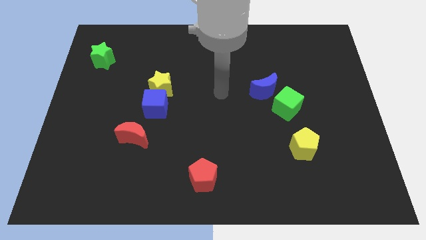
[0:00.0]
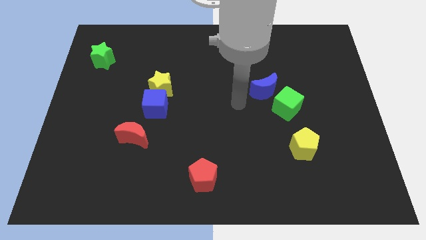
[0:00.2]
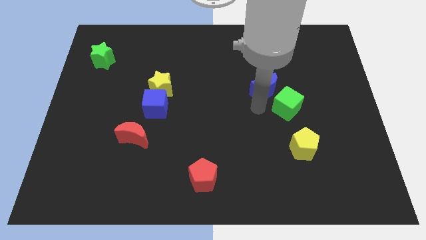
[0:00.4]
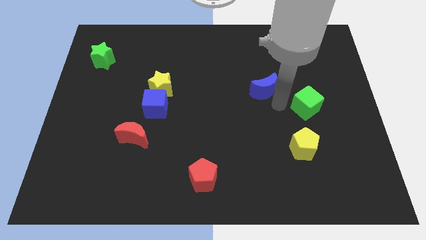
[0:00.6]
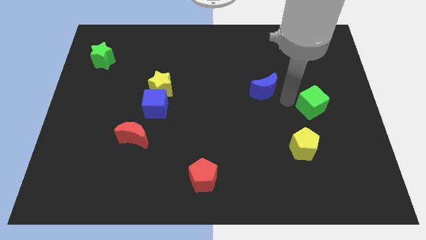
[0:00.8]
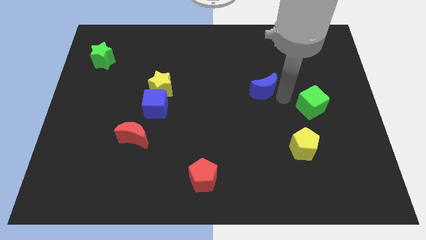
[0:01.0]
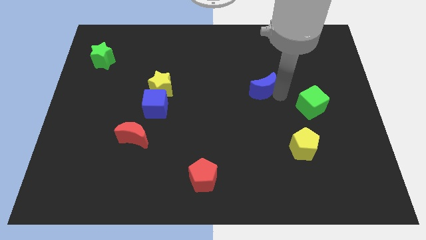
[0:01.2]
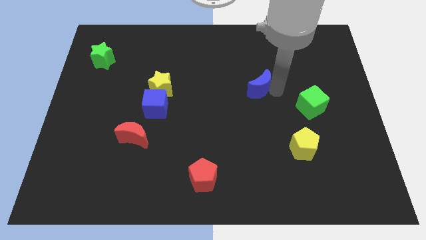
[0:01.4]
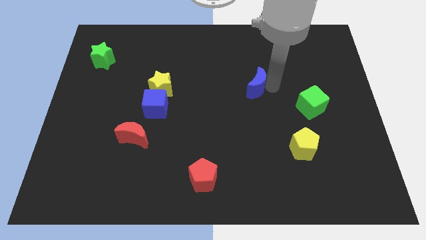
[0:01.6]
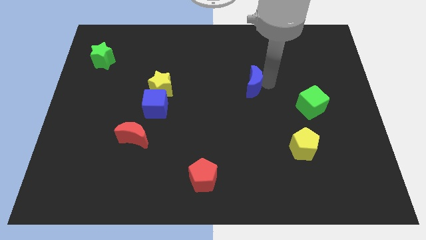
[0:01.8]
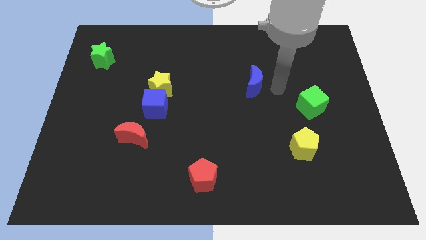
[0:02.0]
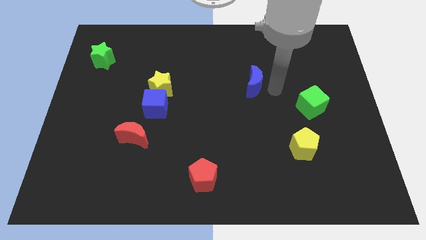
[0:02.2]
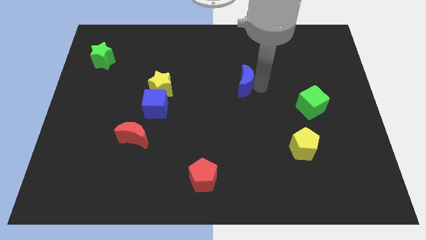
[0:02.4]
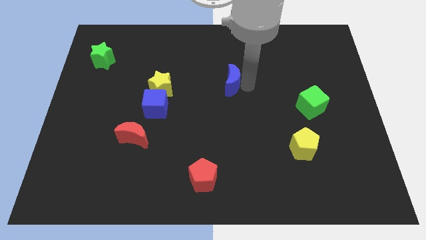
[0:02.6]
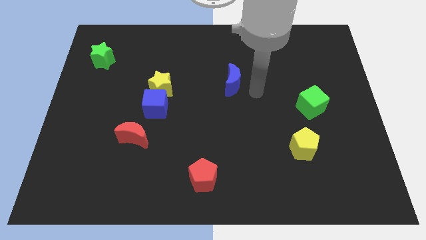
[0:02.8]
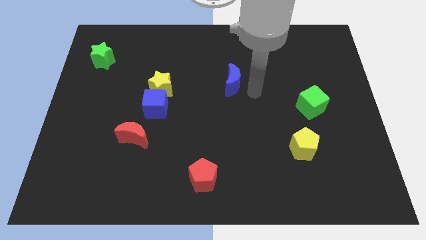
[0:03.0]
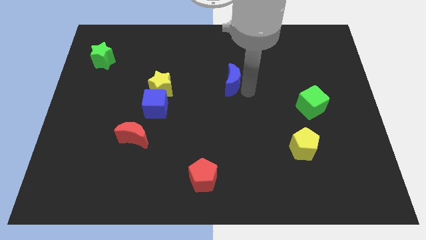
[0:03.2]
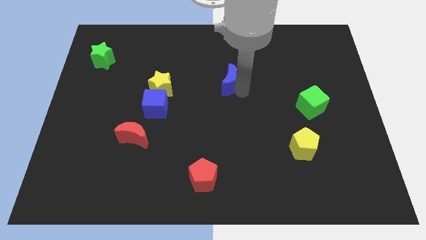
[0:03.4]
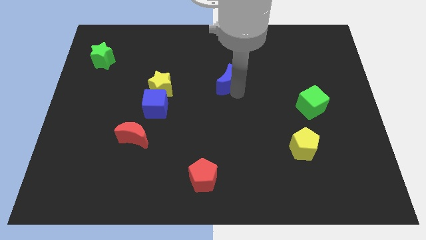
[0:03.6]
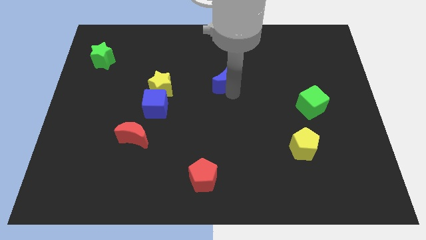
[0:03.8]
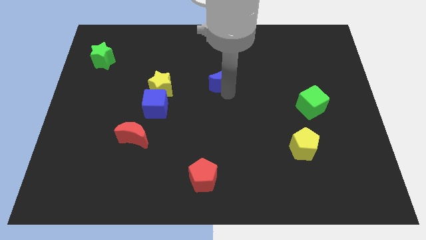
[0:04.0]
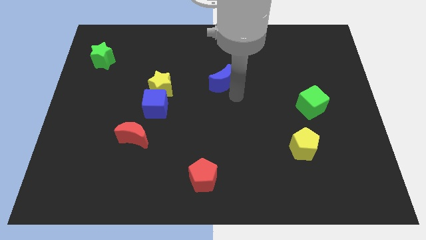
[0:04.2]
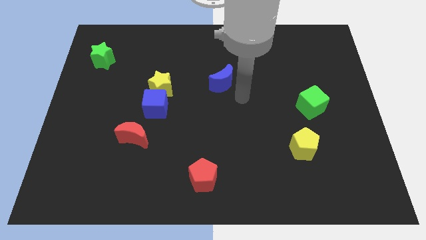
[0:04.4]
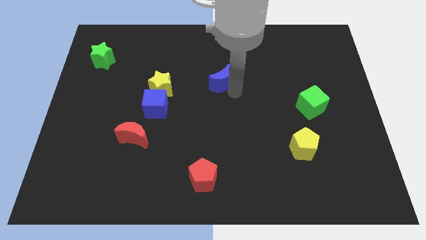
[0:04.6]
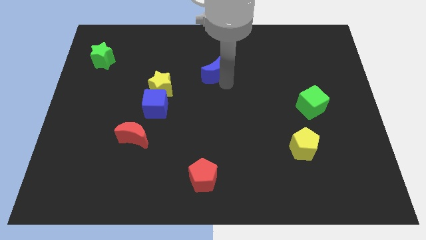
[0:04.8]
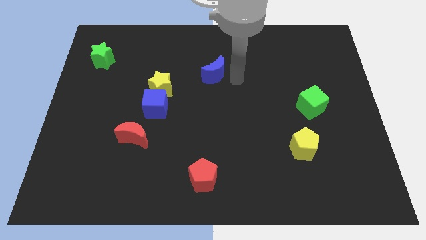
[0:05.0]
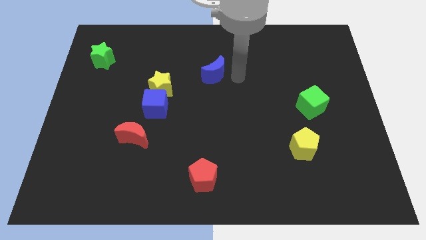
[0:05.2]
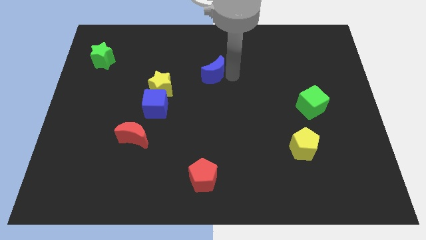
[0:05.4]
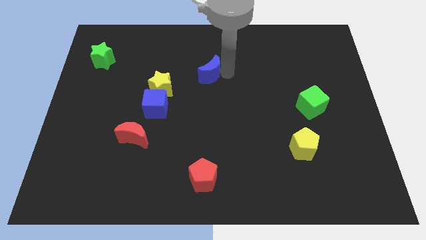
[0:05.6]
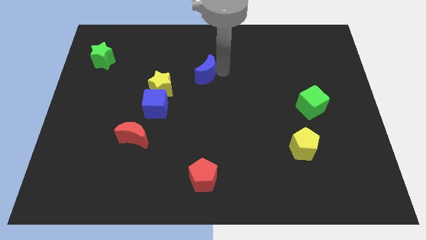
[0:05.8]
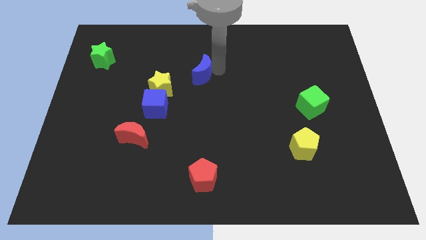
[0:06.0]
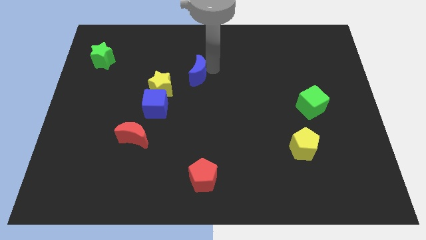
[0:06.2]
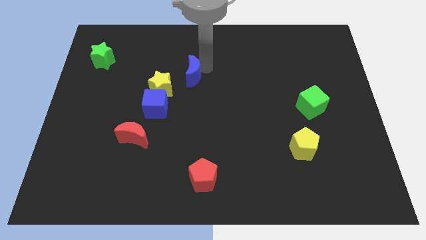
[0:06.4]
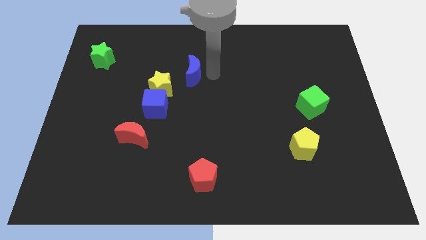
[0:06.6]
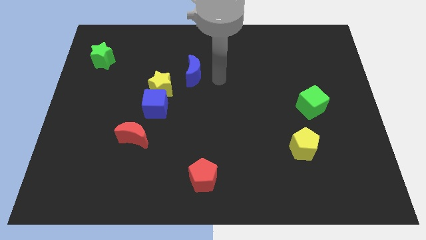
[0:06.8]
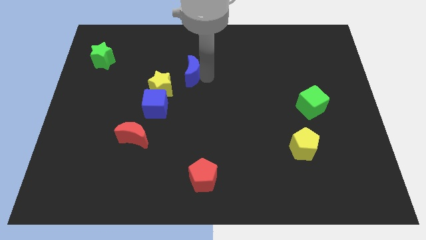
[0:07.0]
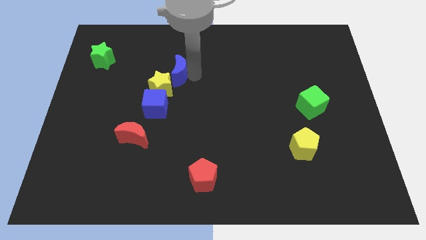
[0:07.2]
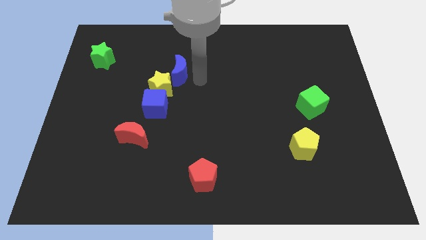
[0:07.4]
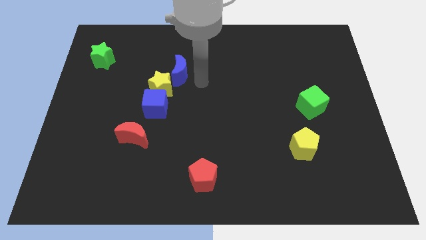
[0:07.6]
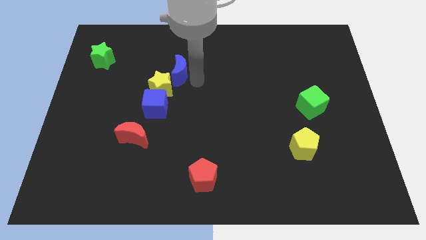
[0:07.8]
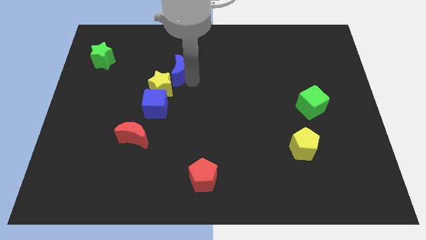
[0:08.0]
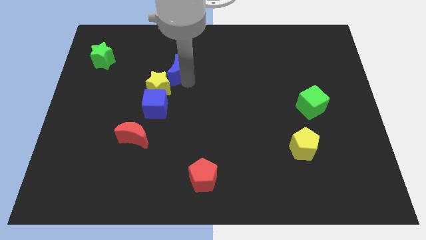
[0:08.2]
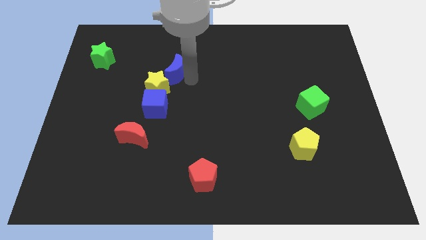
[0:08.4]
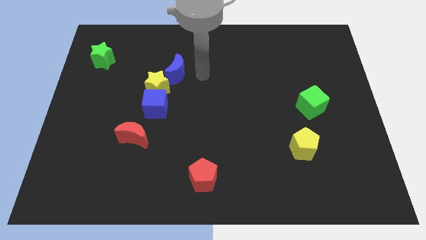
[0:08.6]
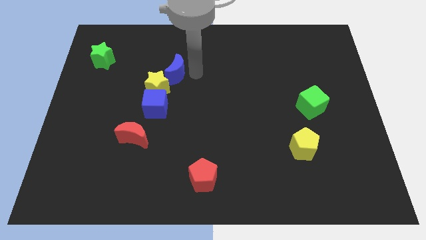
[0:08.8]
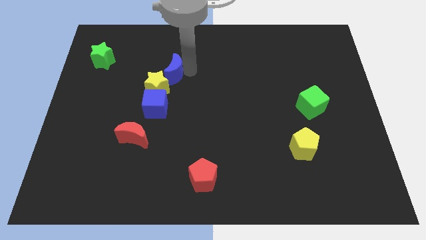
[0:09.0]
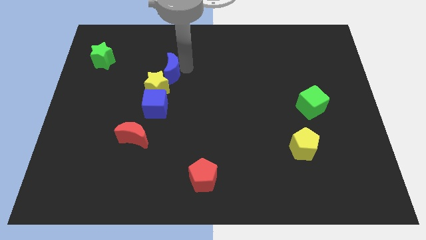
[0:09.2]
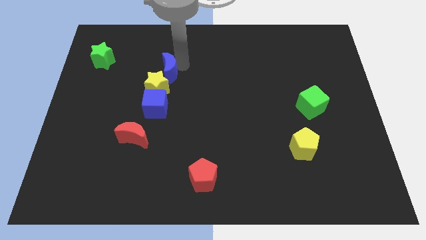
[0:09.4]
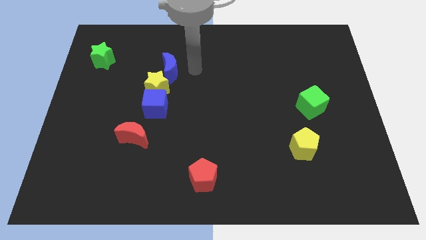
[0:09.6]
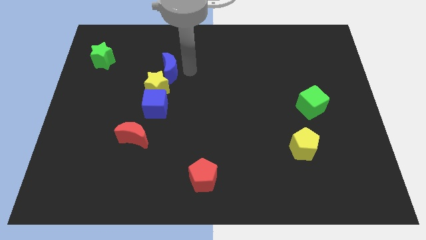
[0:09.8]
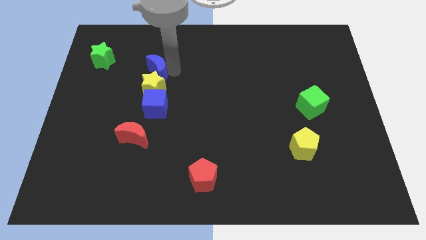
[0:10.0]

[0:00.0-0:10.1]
slide the blue moon diagonally up and to the left of the yellow star

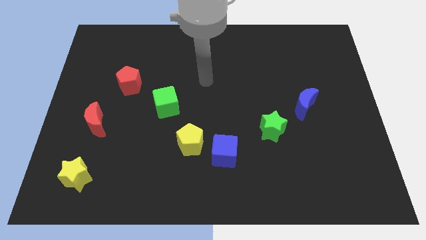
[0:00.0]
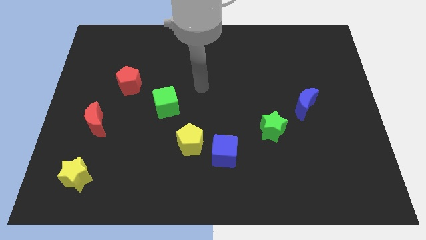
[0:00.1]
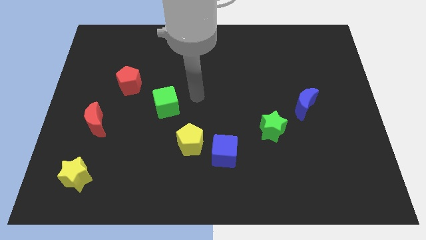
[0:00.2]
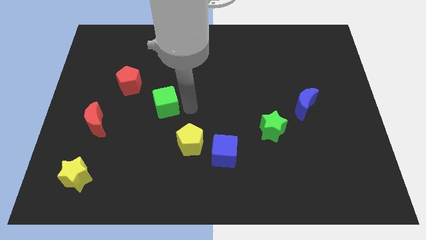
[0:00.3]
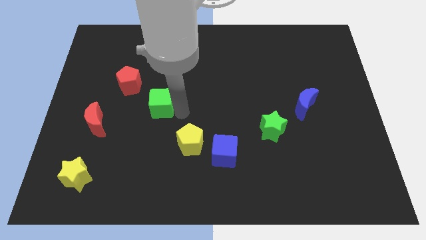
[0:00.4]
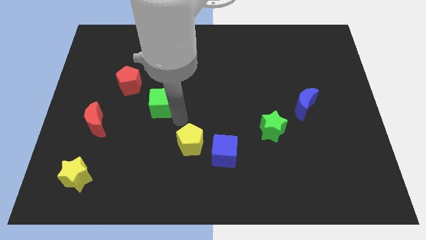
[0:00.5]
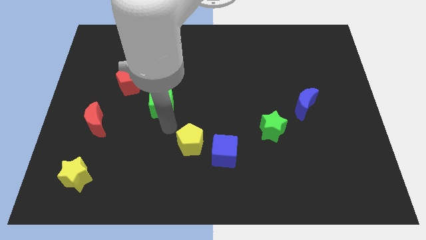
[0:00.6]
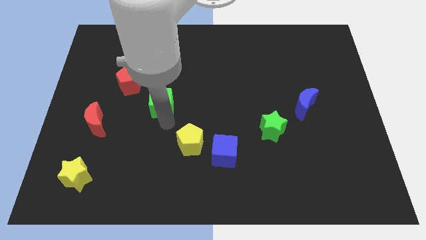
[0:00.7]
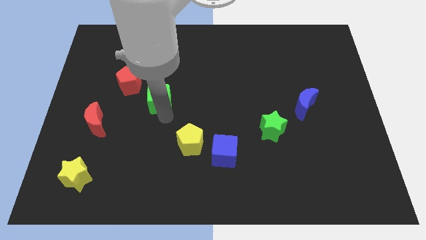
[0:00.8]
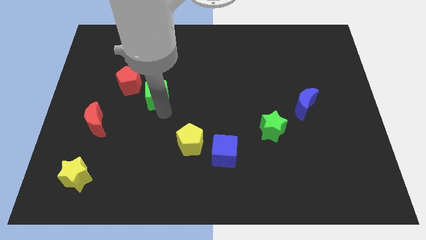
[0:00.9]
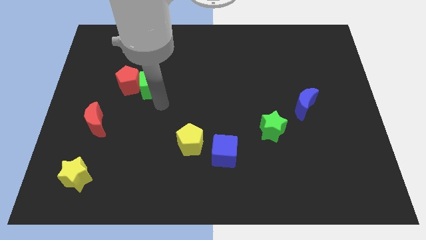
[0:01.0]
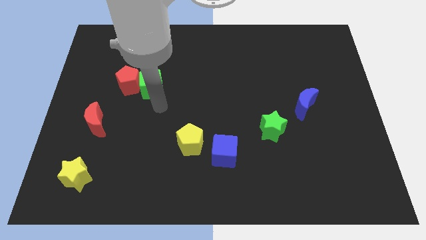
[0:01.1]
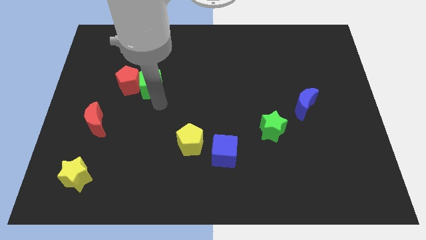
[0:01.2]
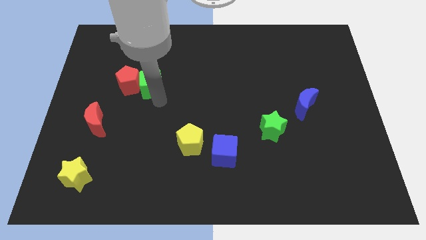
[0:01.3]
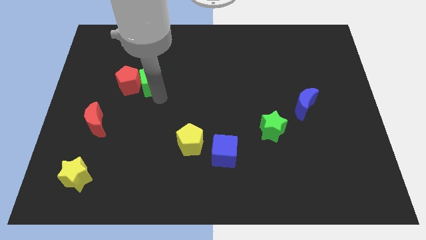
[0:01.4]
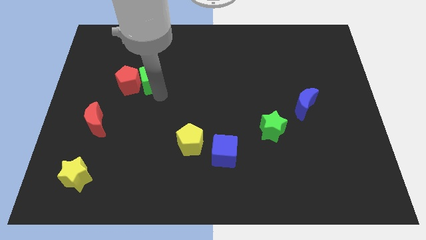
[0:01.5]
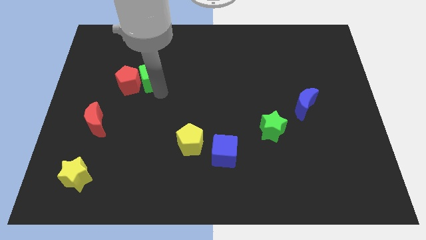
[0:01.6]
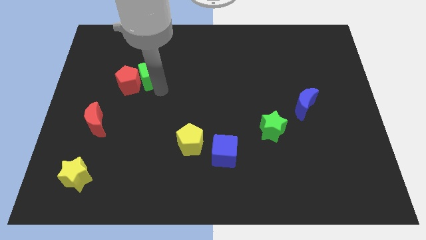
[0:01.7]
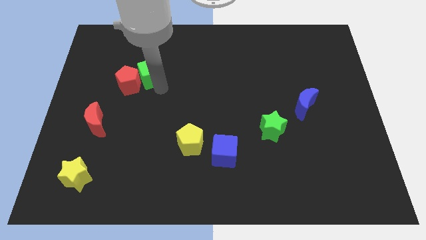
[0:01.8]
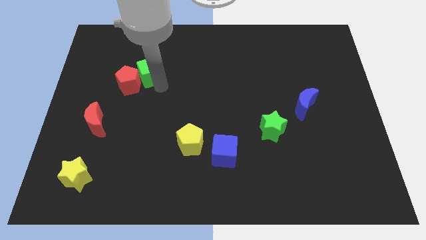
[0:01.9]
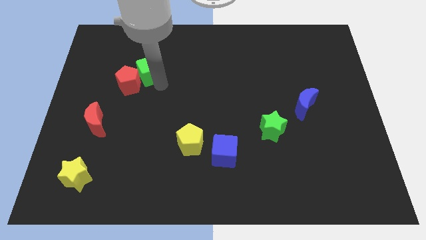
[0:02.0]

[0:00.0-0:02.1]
push the green cube above the red pentagon

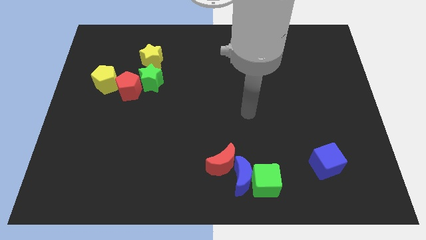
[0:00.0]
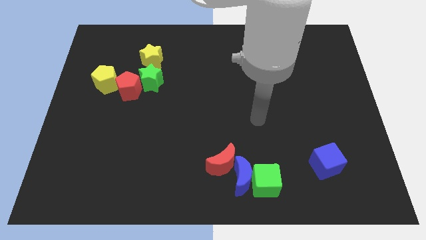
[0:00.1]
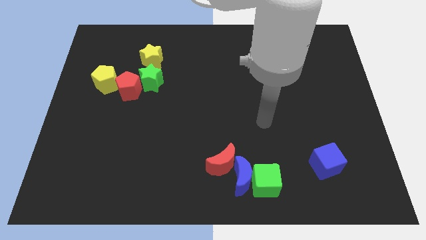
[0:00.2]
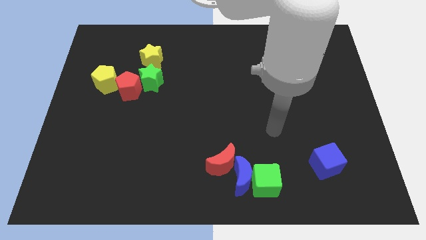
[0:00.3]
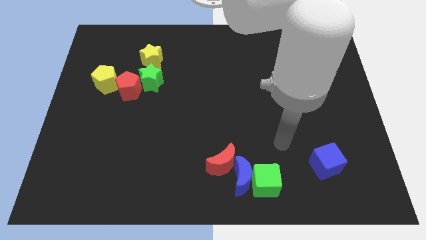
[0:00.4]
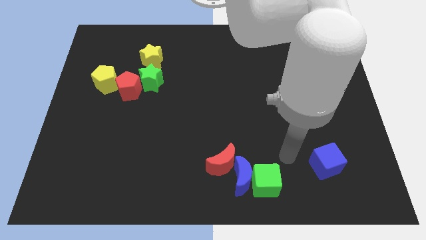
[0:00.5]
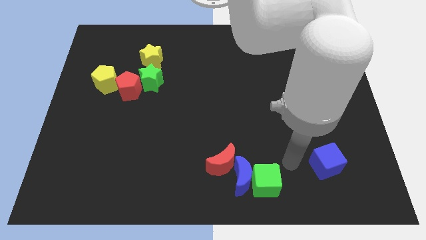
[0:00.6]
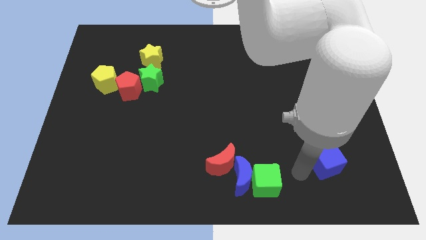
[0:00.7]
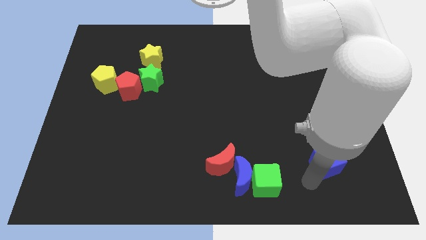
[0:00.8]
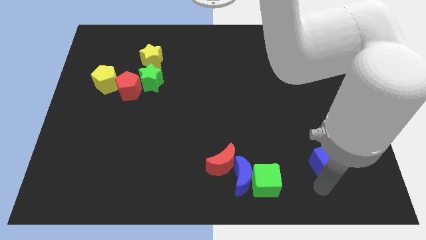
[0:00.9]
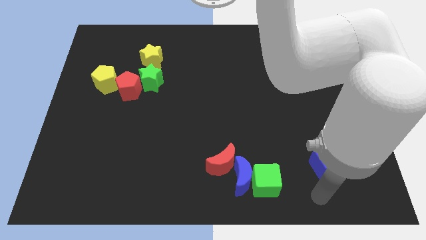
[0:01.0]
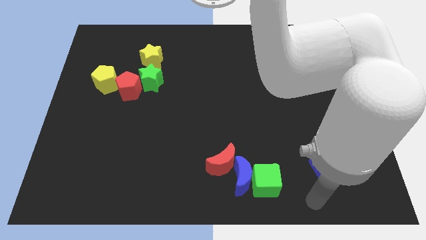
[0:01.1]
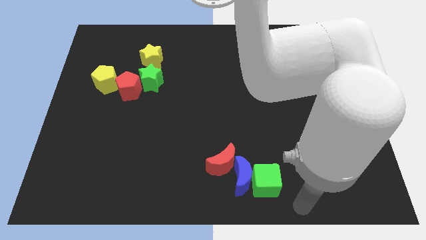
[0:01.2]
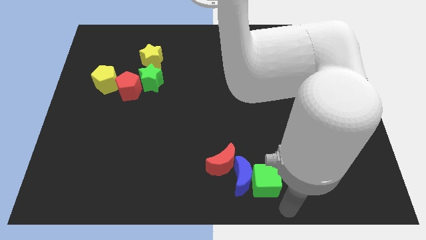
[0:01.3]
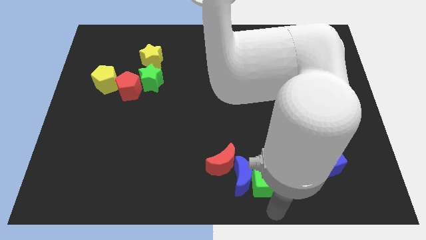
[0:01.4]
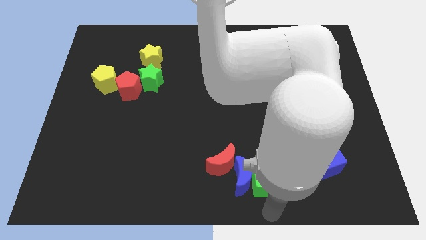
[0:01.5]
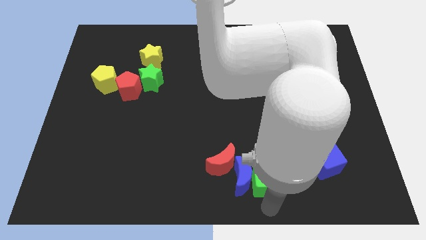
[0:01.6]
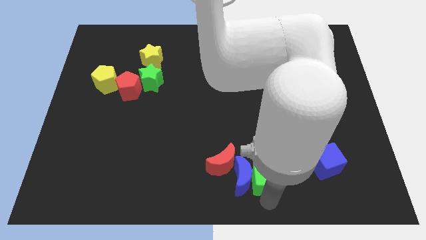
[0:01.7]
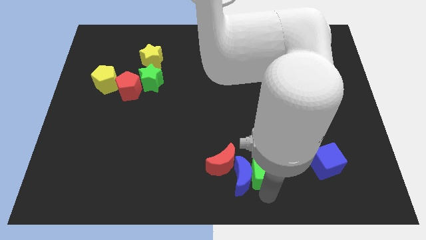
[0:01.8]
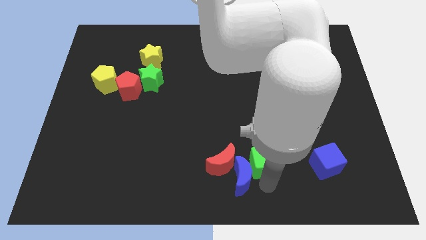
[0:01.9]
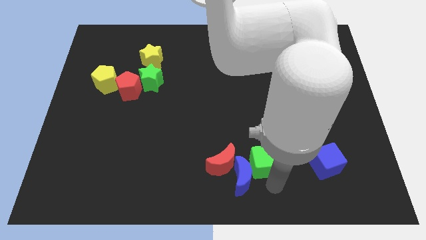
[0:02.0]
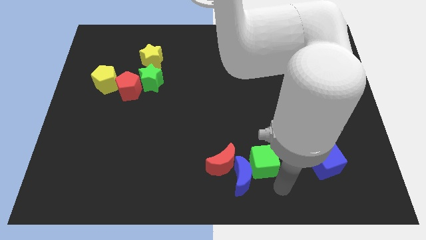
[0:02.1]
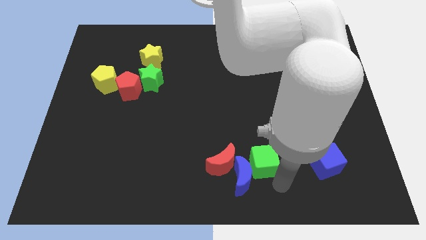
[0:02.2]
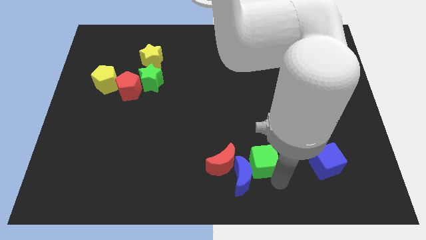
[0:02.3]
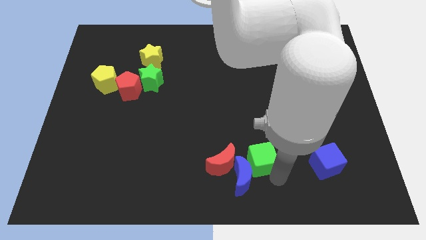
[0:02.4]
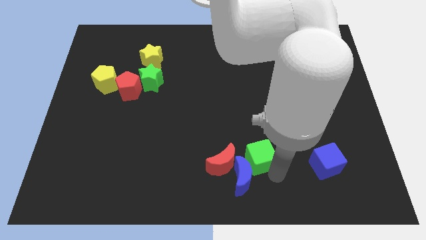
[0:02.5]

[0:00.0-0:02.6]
move the green cube diagonally up and to the right of the red moon
